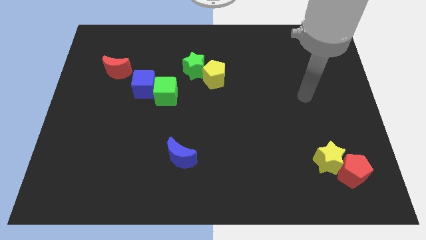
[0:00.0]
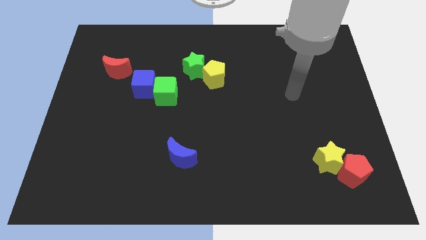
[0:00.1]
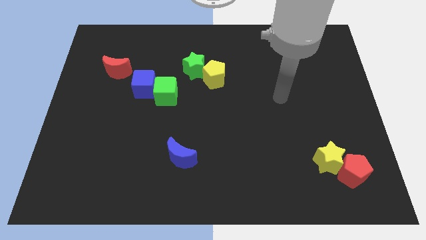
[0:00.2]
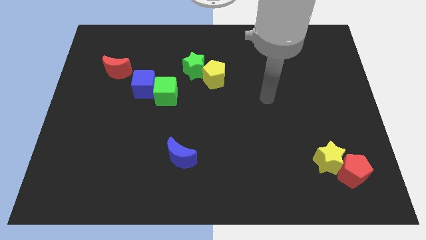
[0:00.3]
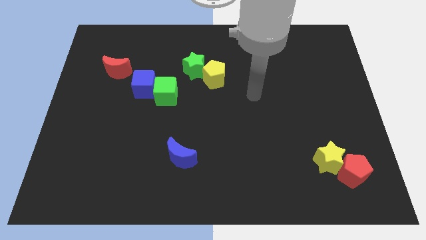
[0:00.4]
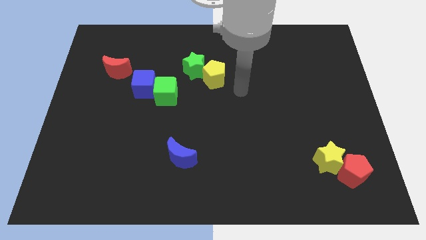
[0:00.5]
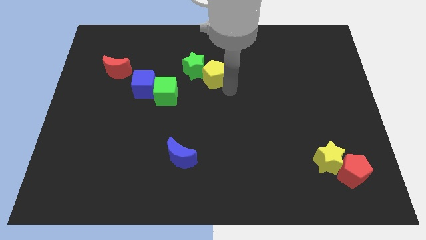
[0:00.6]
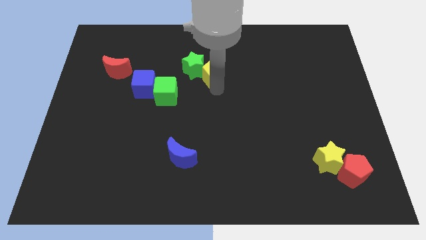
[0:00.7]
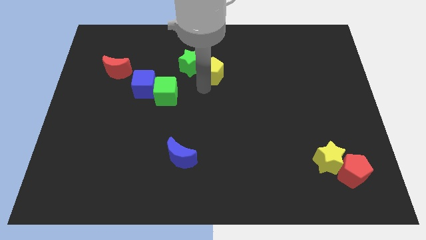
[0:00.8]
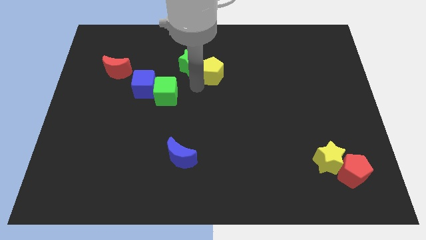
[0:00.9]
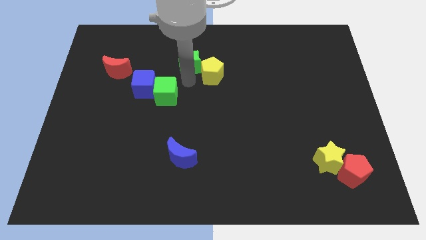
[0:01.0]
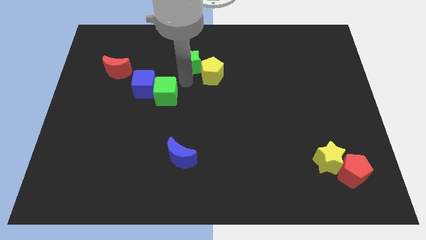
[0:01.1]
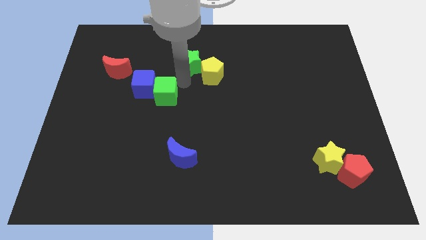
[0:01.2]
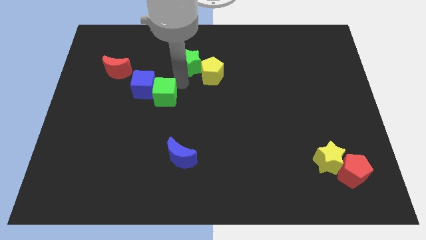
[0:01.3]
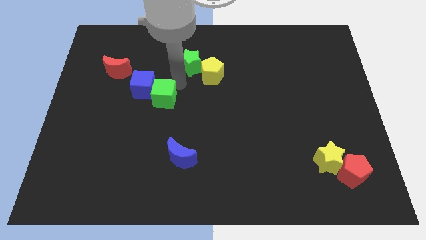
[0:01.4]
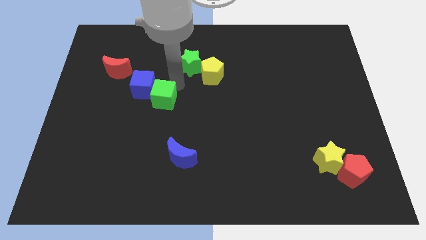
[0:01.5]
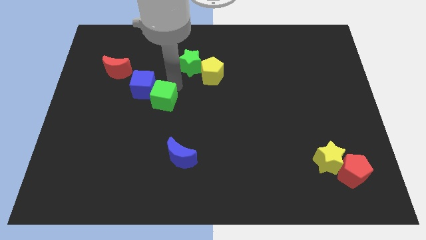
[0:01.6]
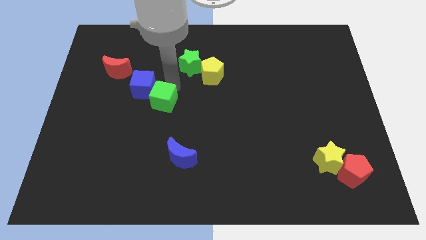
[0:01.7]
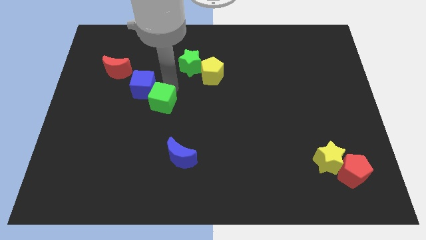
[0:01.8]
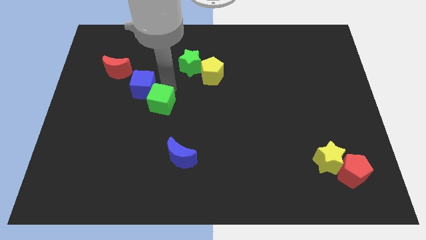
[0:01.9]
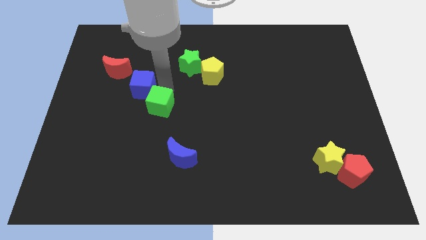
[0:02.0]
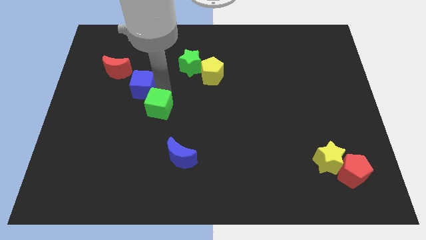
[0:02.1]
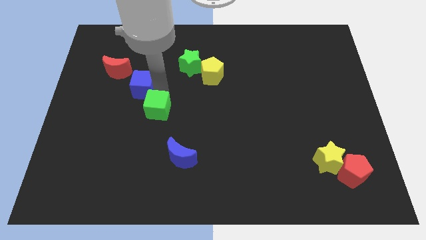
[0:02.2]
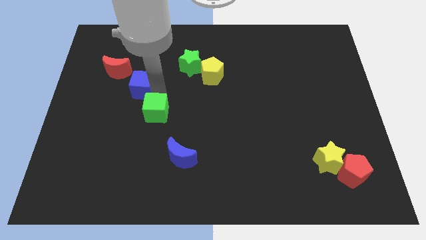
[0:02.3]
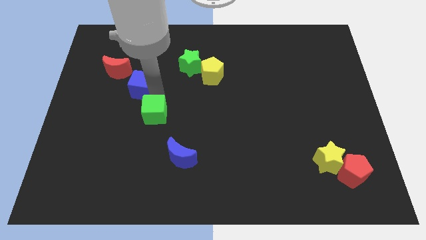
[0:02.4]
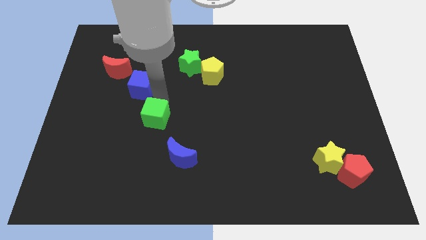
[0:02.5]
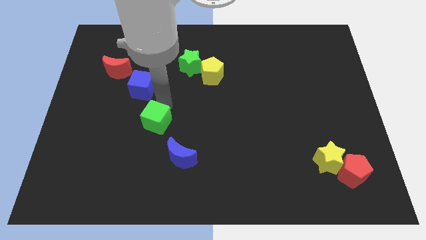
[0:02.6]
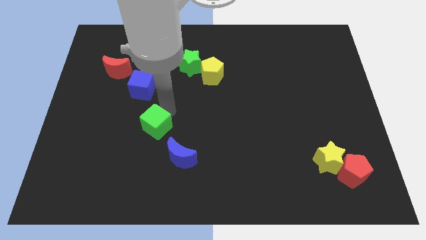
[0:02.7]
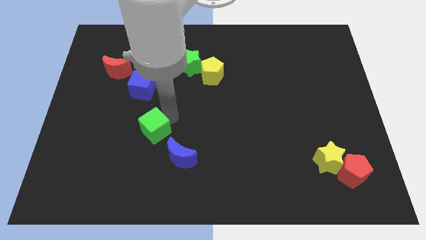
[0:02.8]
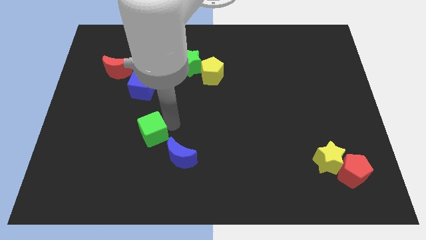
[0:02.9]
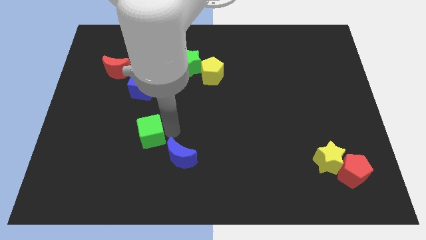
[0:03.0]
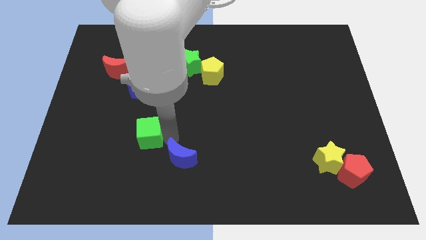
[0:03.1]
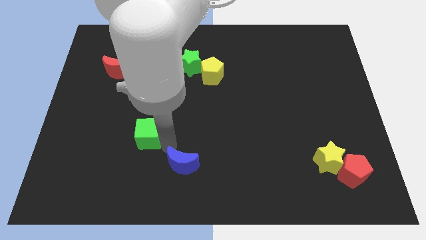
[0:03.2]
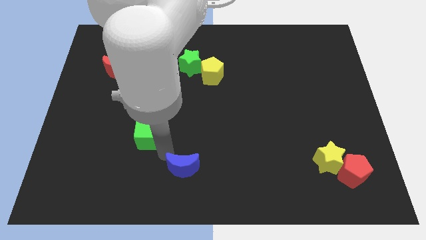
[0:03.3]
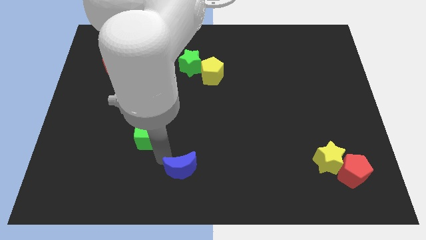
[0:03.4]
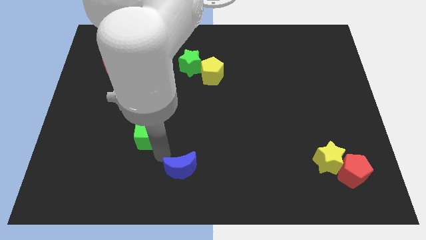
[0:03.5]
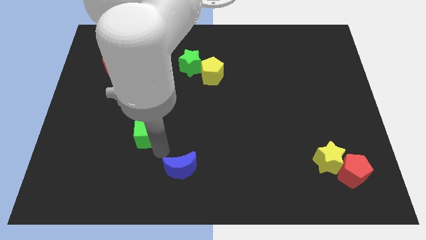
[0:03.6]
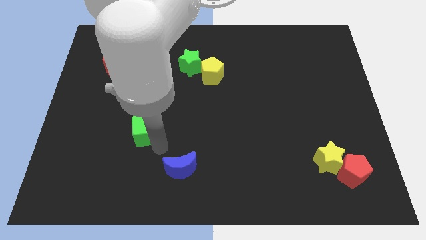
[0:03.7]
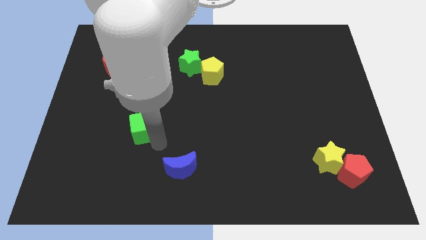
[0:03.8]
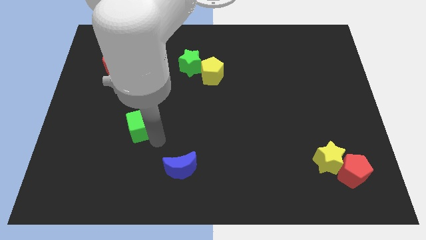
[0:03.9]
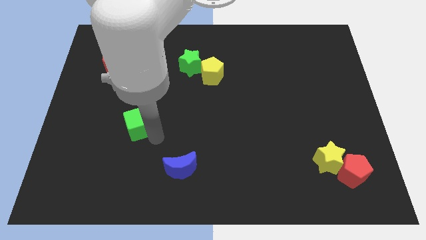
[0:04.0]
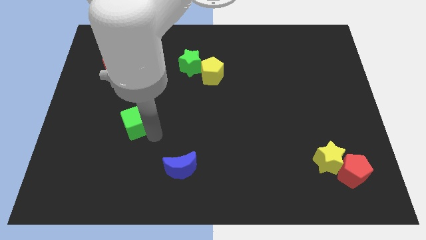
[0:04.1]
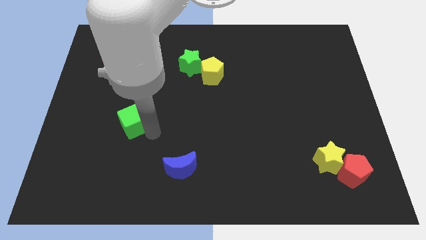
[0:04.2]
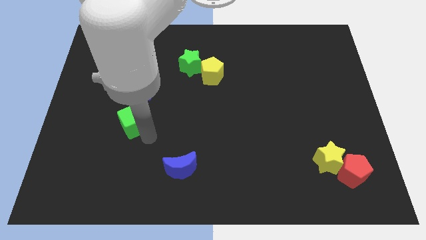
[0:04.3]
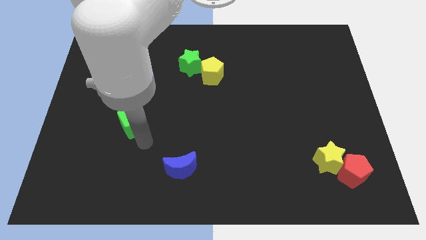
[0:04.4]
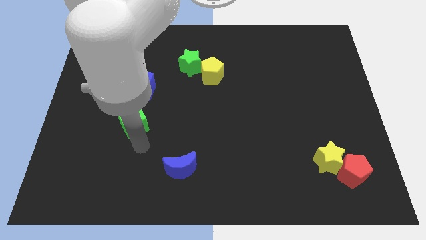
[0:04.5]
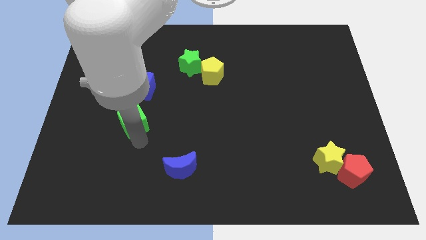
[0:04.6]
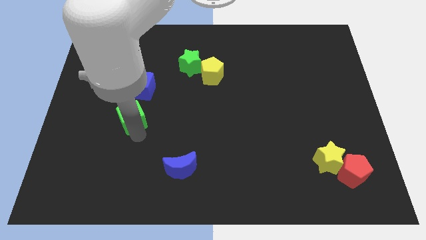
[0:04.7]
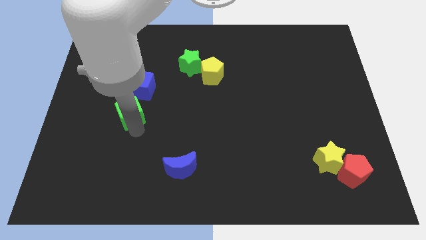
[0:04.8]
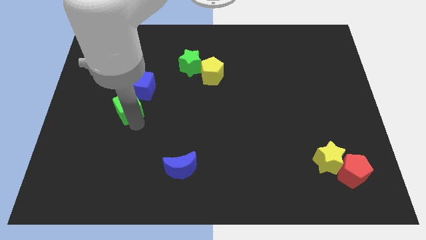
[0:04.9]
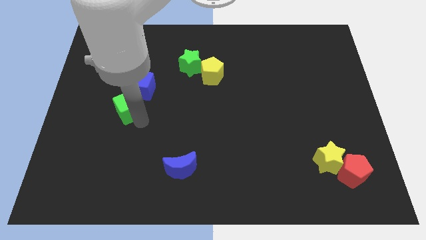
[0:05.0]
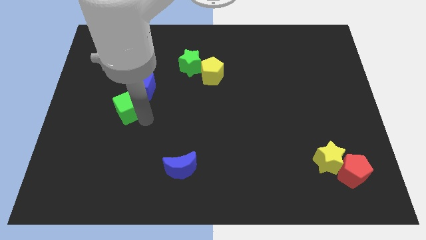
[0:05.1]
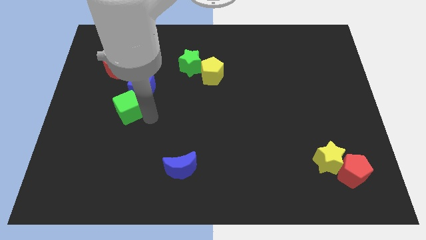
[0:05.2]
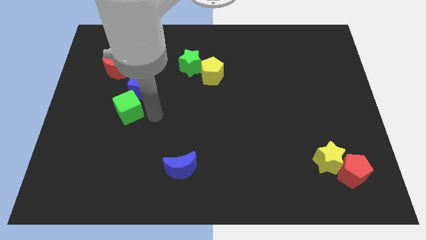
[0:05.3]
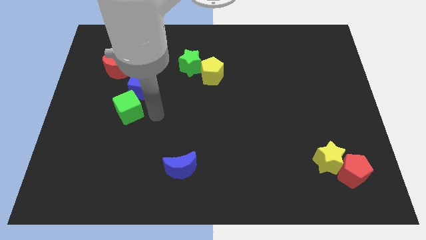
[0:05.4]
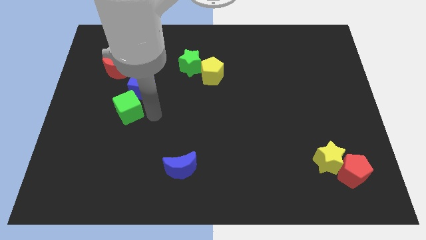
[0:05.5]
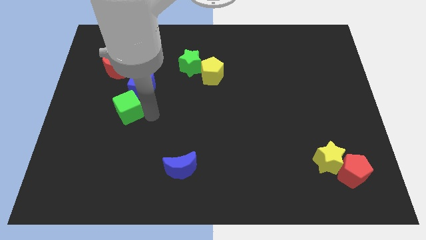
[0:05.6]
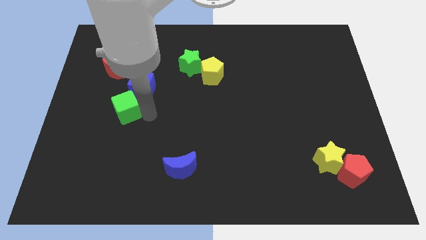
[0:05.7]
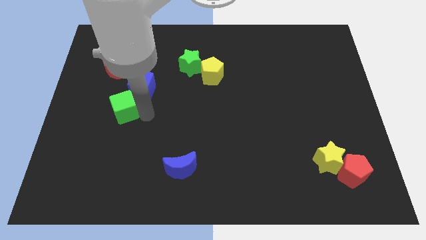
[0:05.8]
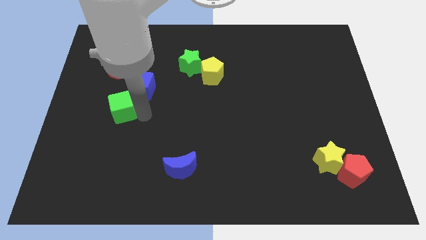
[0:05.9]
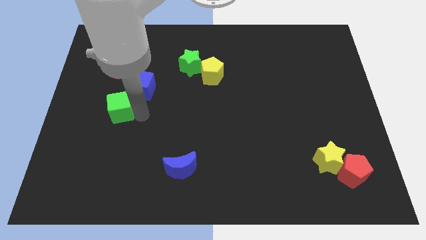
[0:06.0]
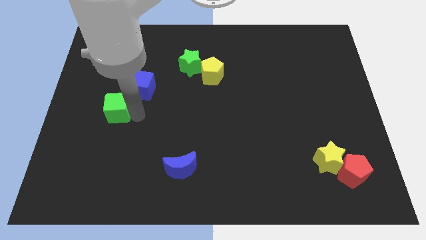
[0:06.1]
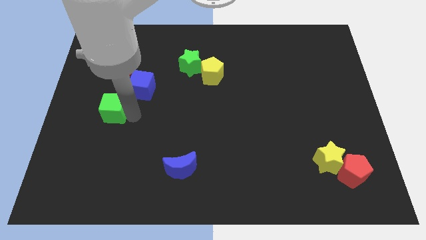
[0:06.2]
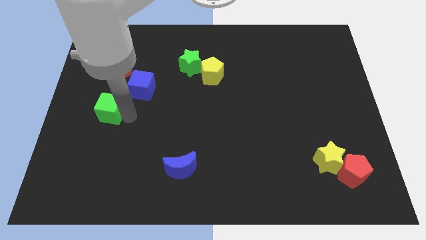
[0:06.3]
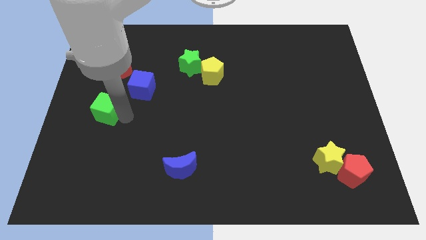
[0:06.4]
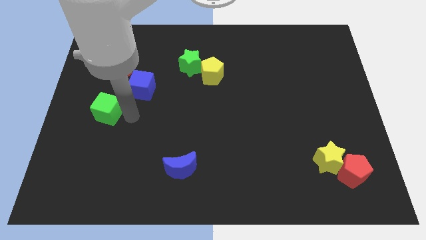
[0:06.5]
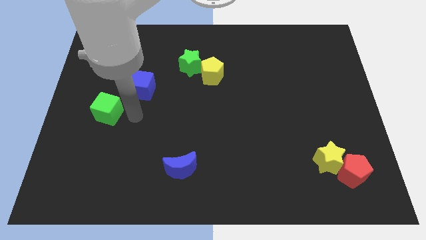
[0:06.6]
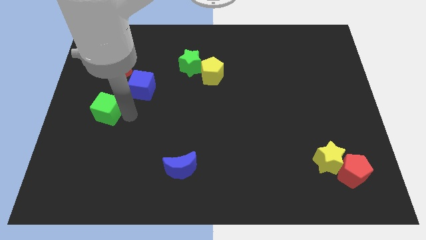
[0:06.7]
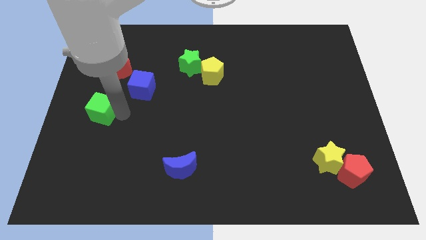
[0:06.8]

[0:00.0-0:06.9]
move the green cube to the left side of the board
